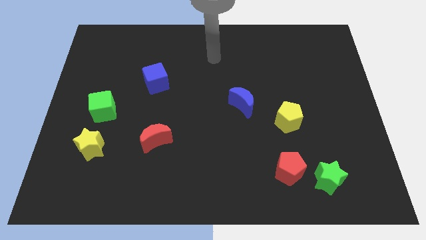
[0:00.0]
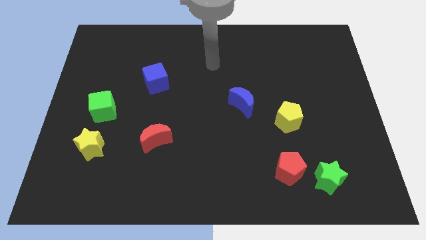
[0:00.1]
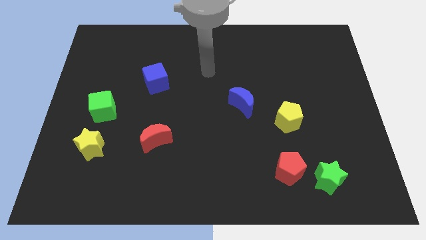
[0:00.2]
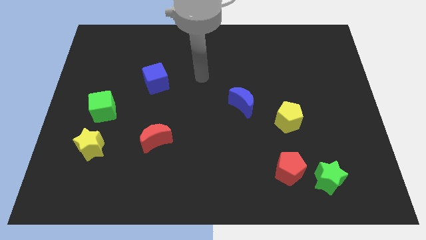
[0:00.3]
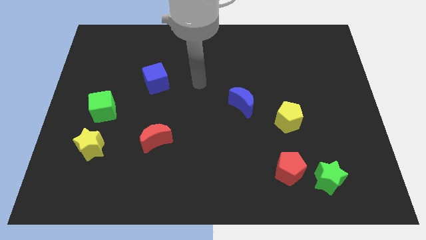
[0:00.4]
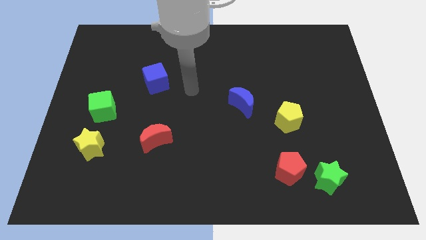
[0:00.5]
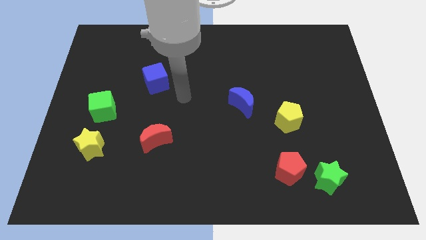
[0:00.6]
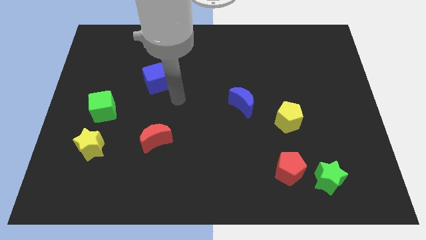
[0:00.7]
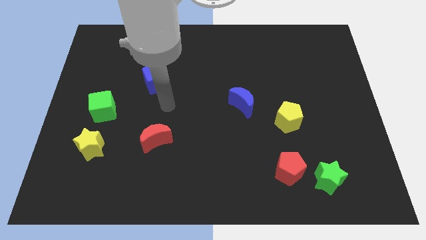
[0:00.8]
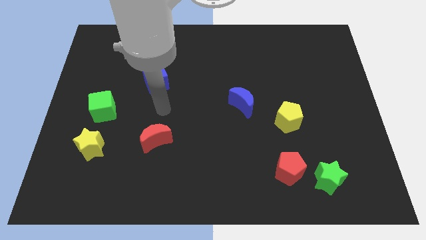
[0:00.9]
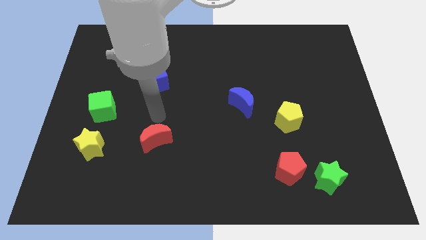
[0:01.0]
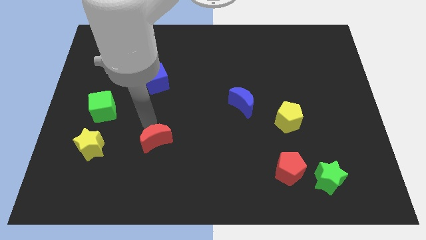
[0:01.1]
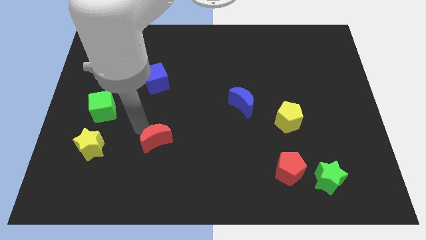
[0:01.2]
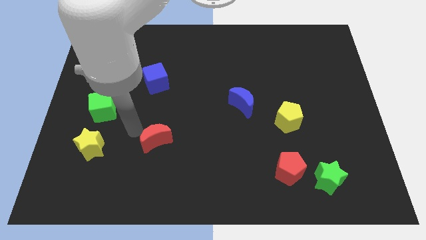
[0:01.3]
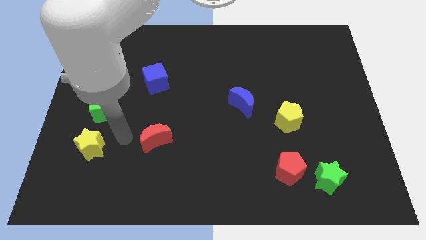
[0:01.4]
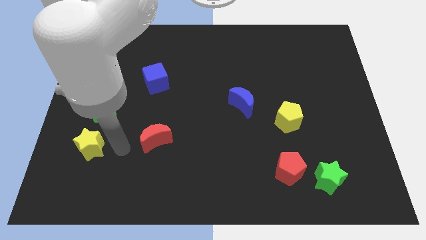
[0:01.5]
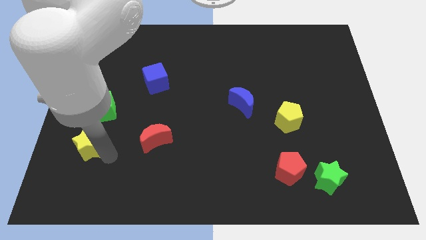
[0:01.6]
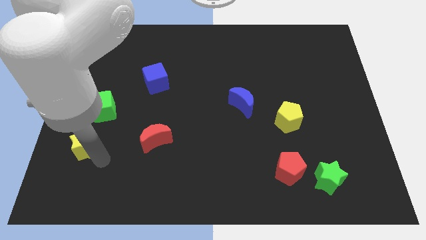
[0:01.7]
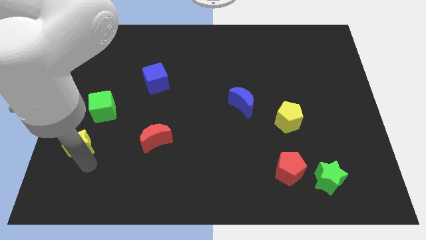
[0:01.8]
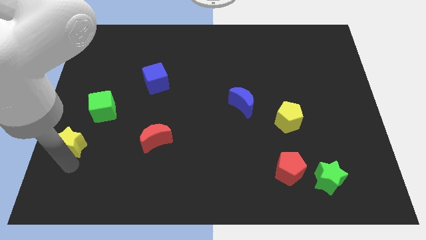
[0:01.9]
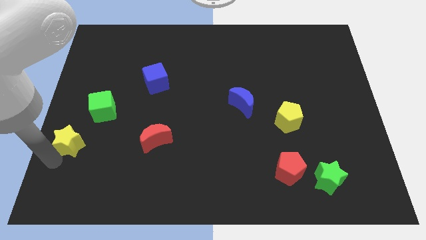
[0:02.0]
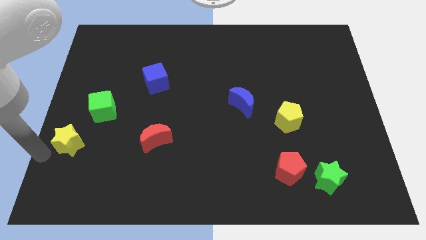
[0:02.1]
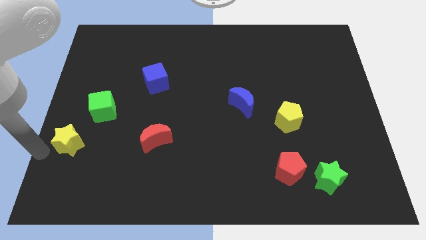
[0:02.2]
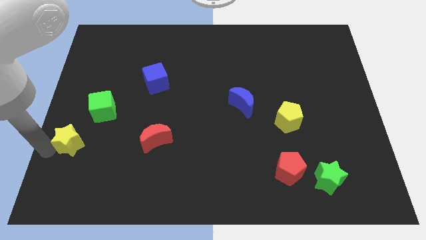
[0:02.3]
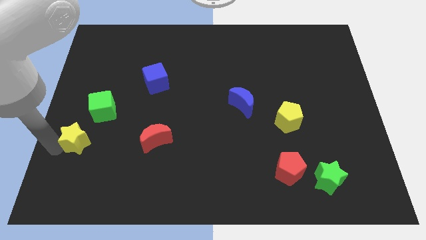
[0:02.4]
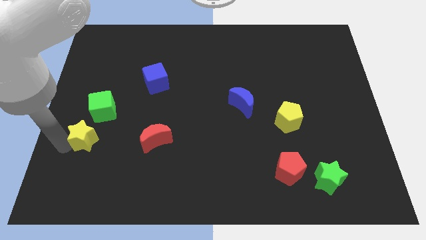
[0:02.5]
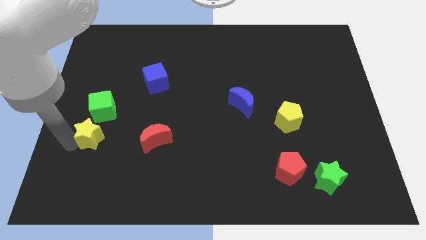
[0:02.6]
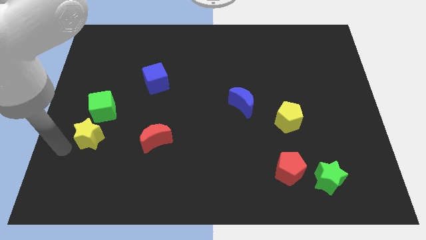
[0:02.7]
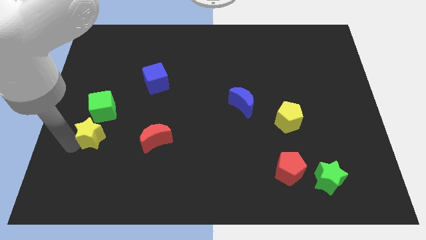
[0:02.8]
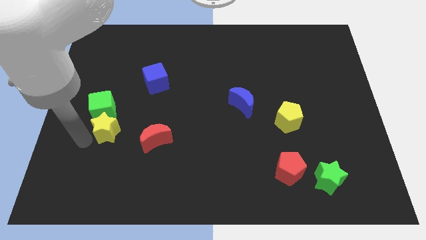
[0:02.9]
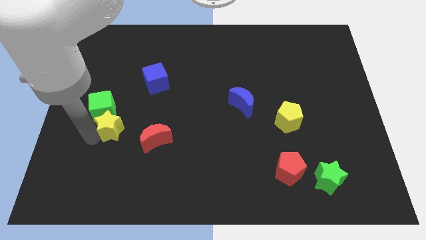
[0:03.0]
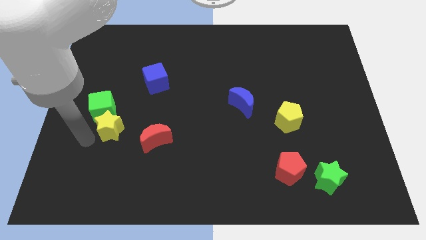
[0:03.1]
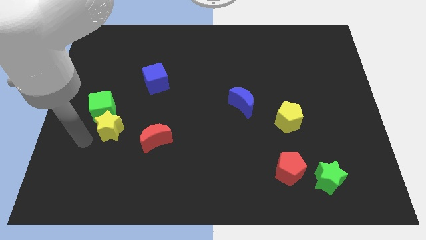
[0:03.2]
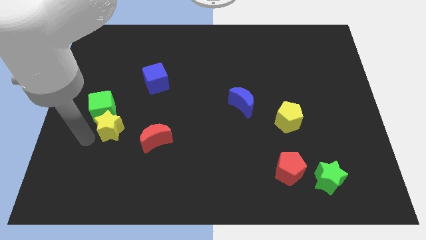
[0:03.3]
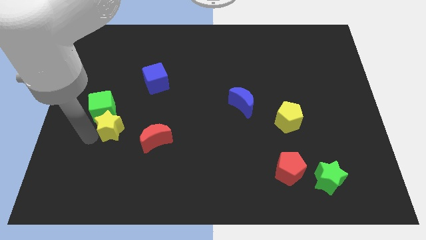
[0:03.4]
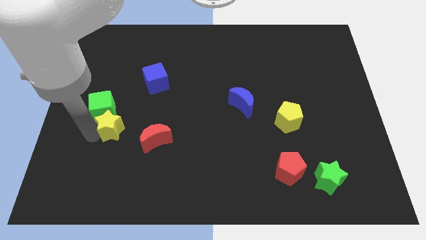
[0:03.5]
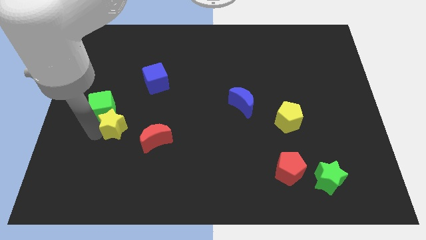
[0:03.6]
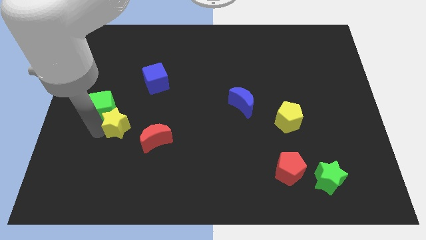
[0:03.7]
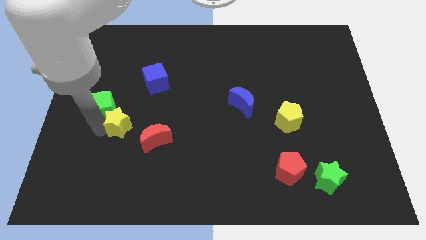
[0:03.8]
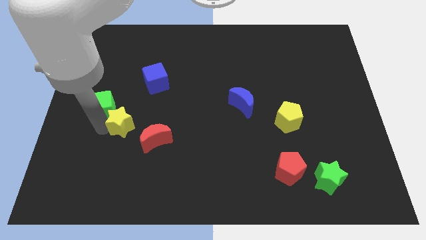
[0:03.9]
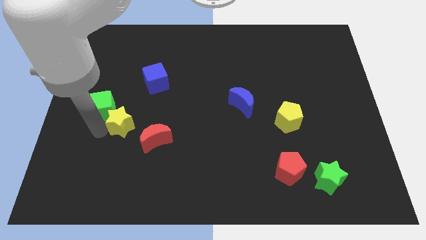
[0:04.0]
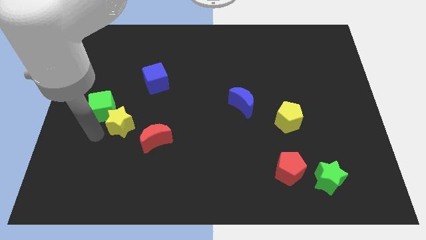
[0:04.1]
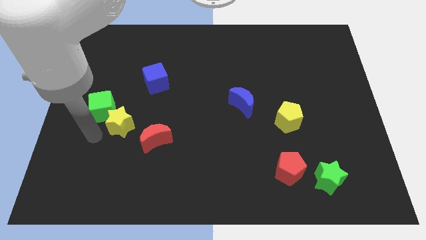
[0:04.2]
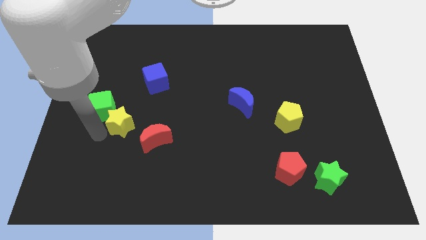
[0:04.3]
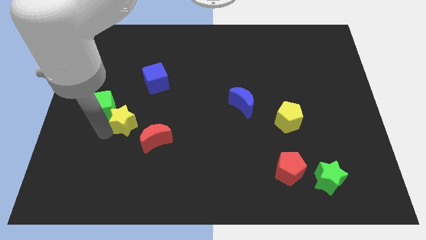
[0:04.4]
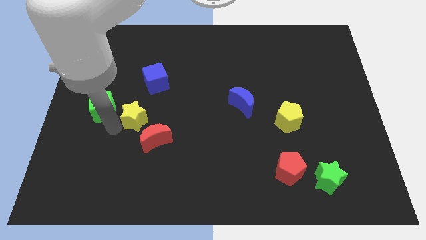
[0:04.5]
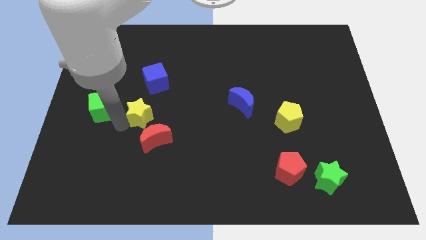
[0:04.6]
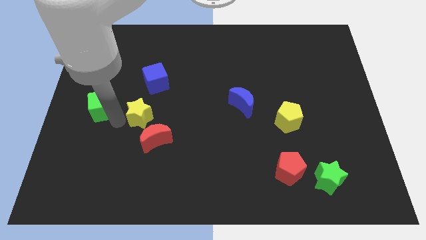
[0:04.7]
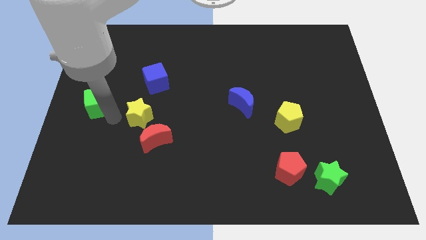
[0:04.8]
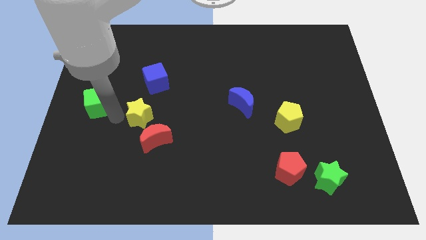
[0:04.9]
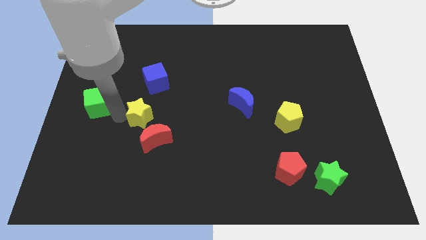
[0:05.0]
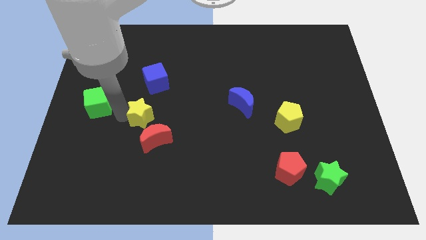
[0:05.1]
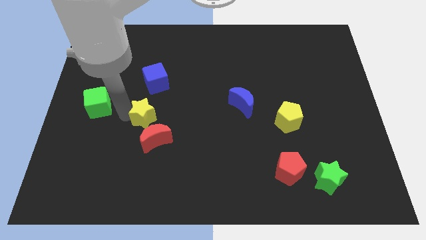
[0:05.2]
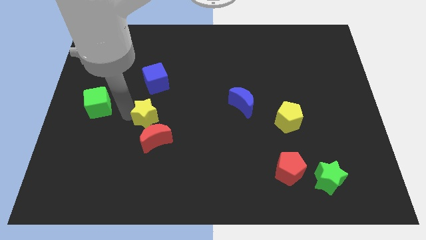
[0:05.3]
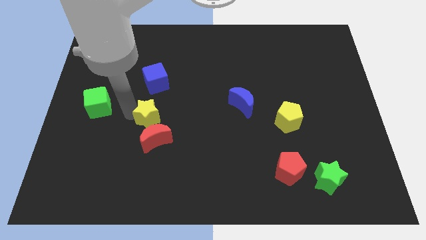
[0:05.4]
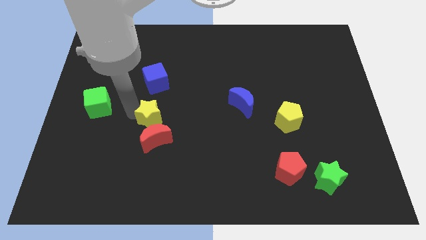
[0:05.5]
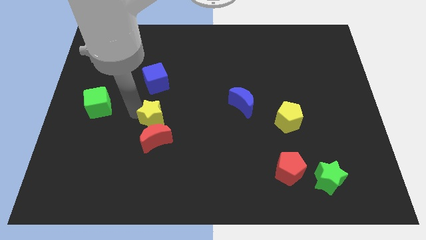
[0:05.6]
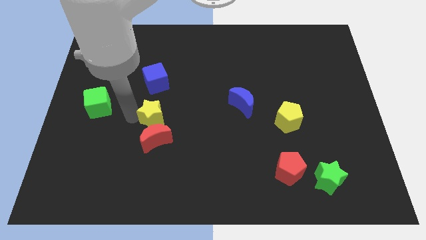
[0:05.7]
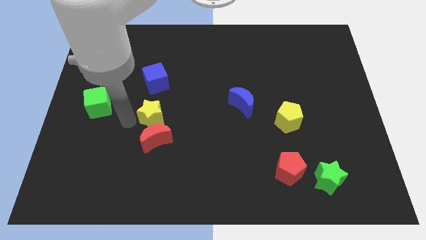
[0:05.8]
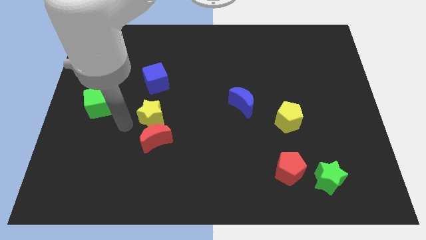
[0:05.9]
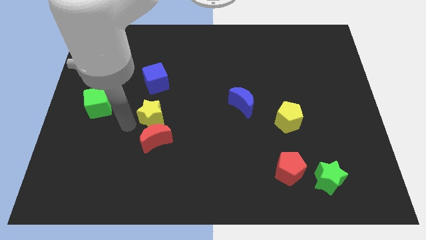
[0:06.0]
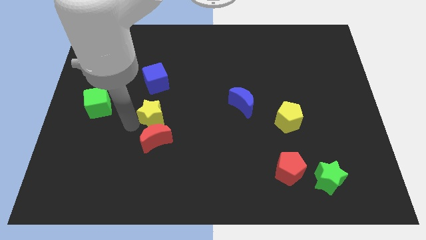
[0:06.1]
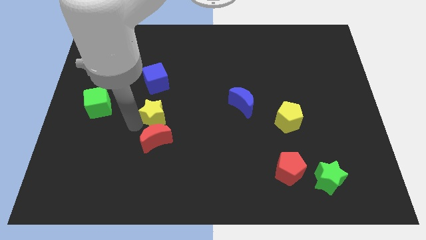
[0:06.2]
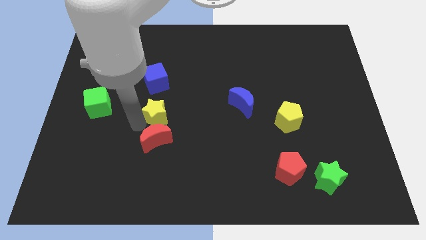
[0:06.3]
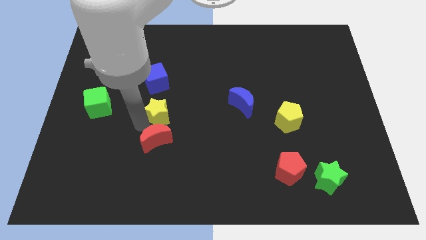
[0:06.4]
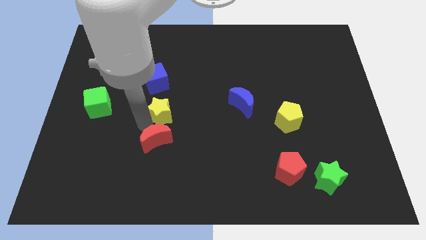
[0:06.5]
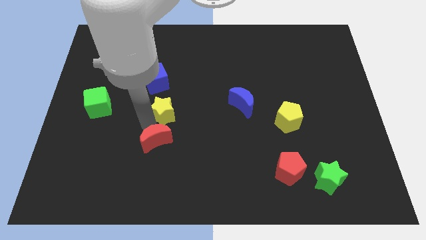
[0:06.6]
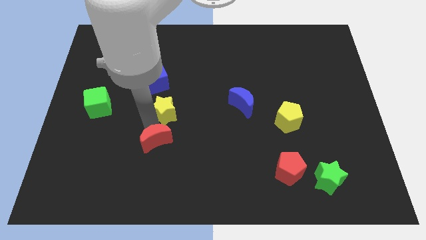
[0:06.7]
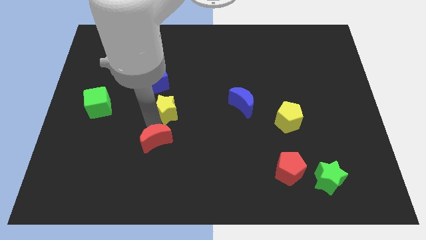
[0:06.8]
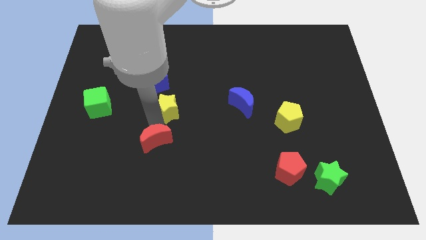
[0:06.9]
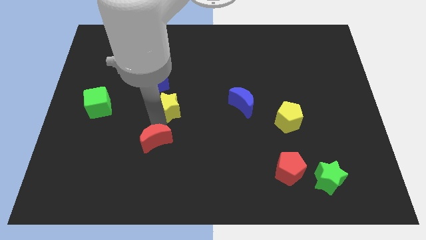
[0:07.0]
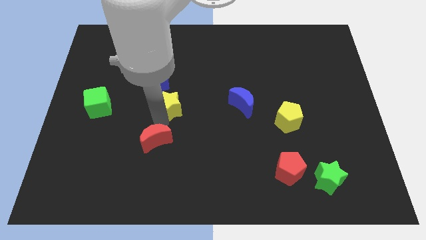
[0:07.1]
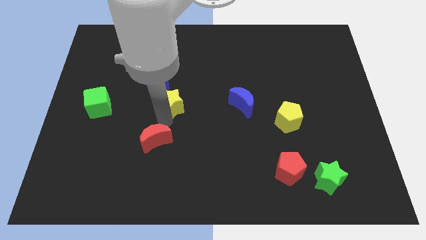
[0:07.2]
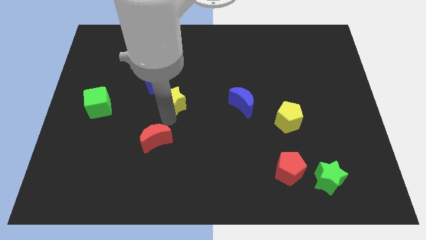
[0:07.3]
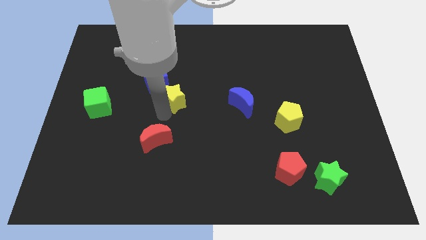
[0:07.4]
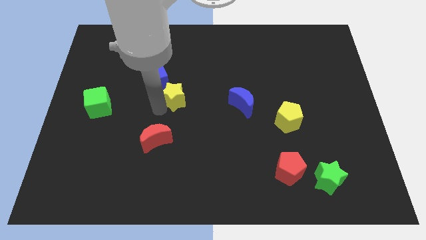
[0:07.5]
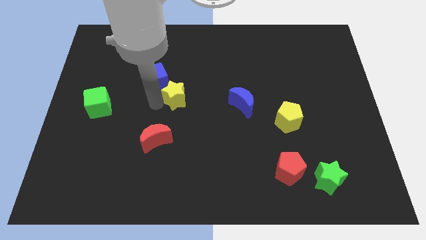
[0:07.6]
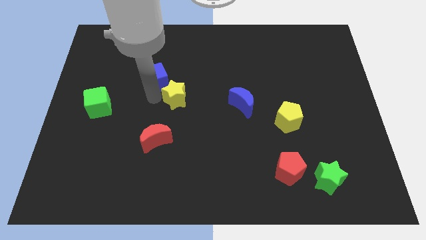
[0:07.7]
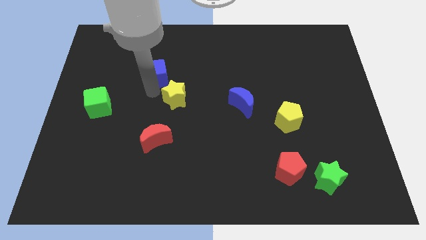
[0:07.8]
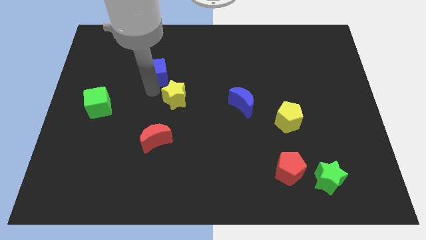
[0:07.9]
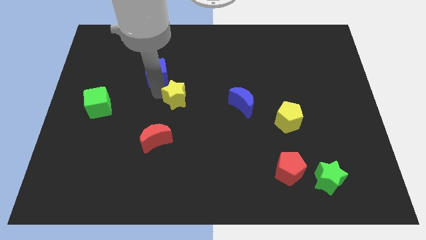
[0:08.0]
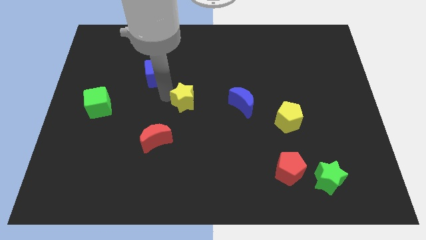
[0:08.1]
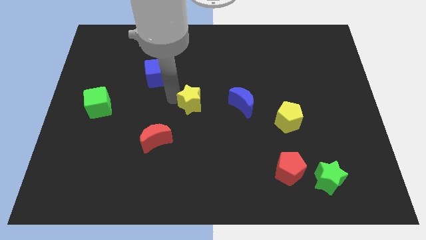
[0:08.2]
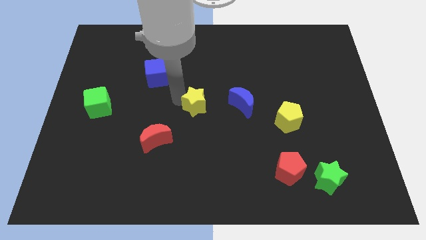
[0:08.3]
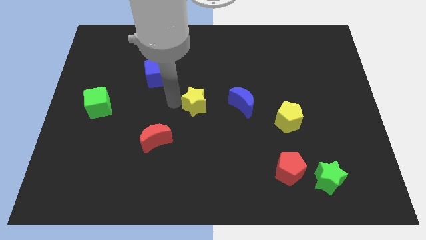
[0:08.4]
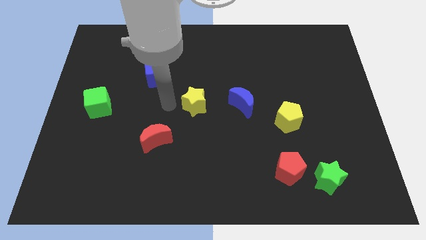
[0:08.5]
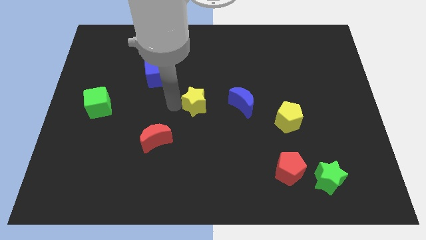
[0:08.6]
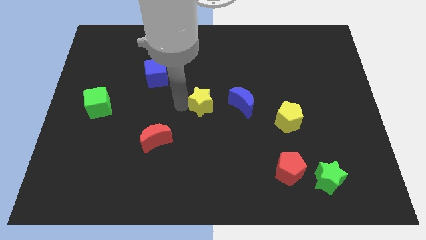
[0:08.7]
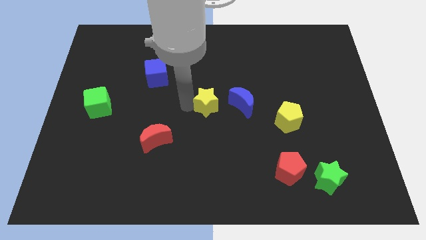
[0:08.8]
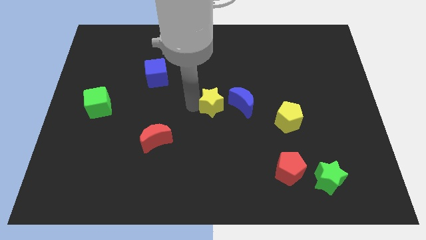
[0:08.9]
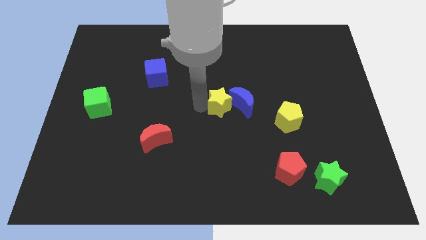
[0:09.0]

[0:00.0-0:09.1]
move the yellow star towards the blue moon
